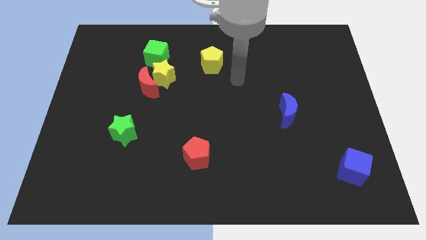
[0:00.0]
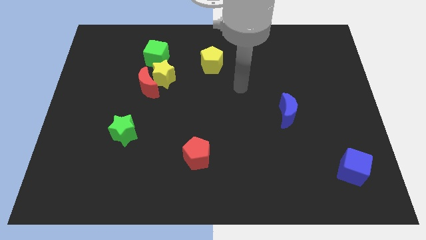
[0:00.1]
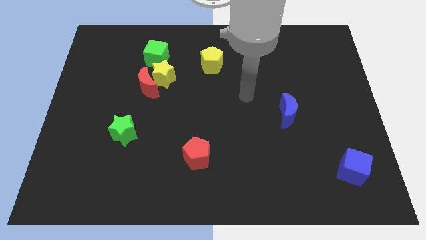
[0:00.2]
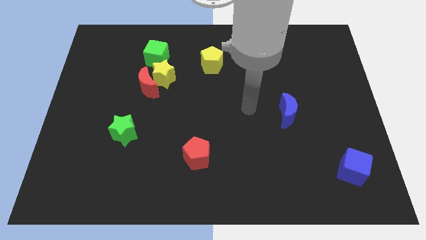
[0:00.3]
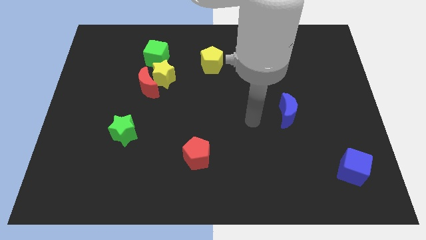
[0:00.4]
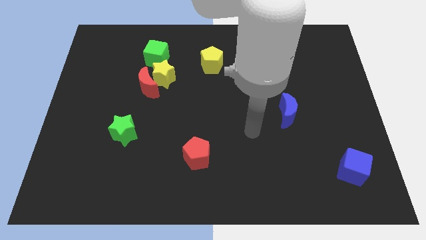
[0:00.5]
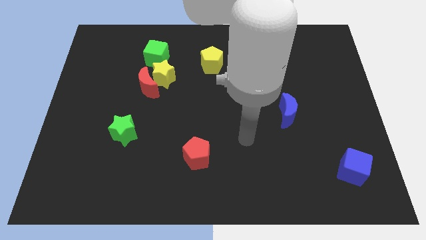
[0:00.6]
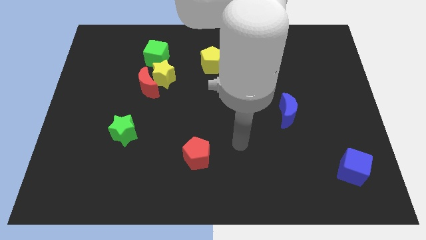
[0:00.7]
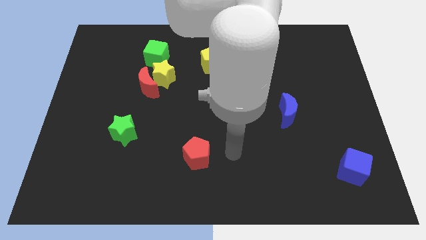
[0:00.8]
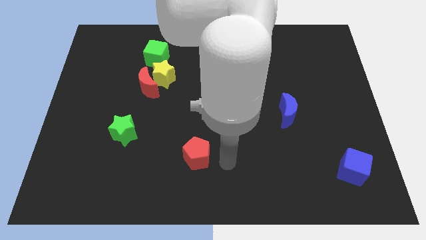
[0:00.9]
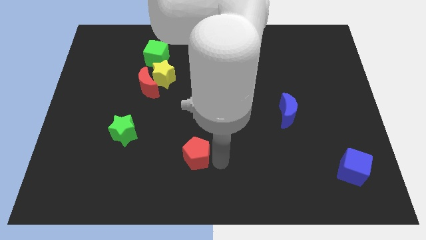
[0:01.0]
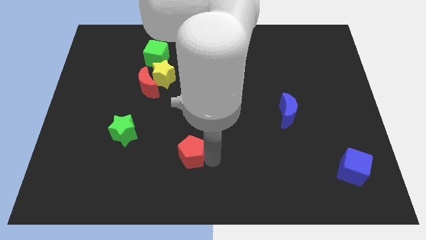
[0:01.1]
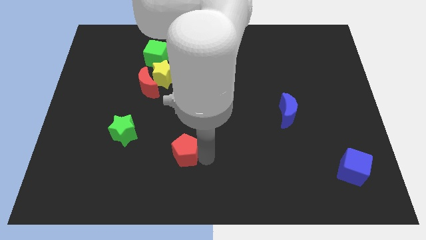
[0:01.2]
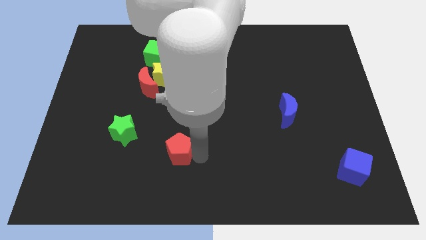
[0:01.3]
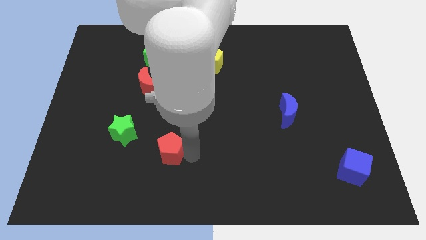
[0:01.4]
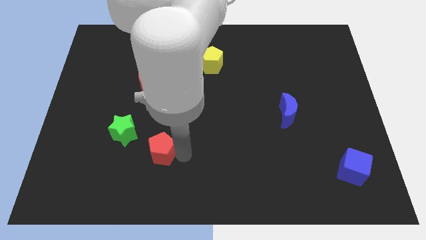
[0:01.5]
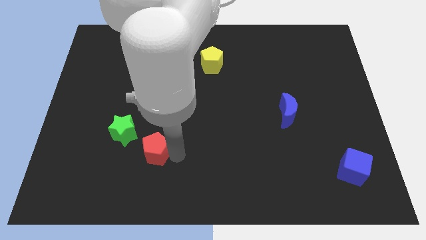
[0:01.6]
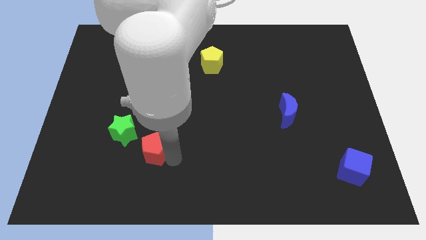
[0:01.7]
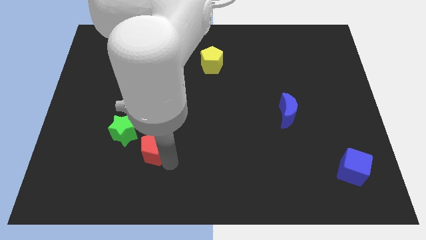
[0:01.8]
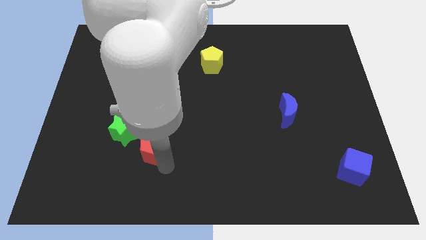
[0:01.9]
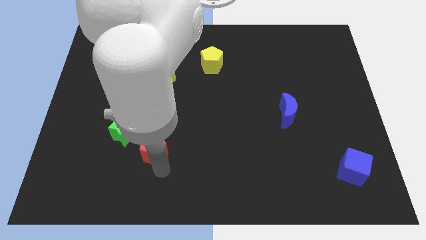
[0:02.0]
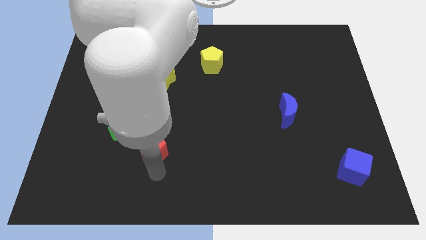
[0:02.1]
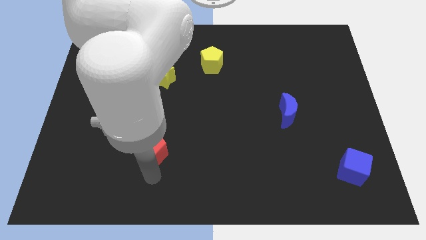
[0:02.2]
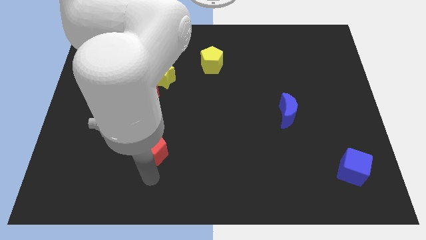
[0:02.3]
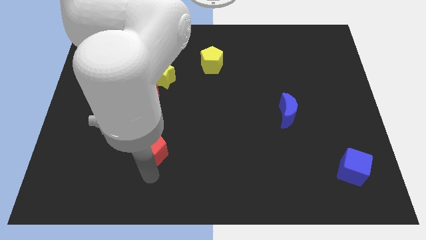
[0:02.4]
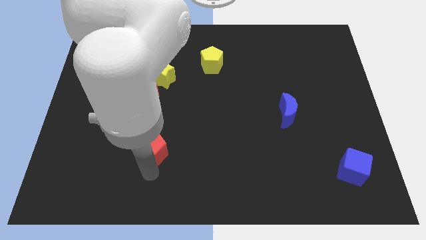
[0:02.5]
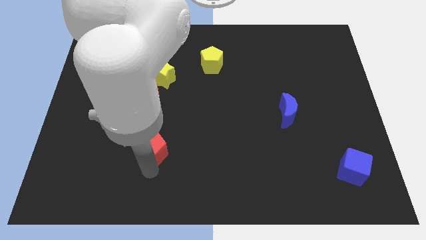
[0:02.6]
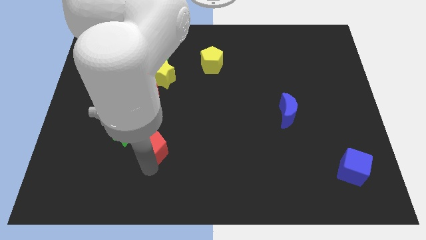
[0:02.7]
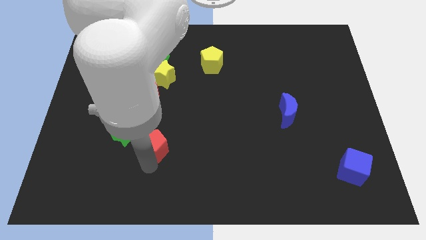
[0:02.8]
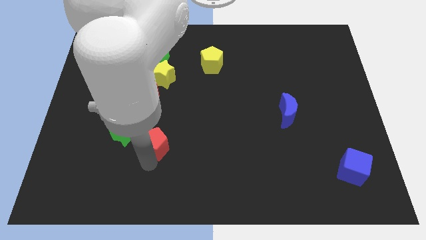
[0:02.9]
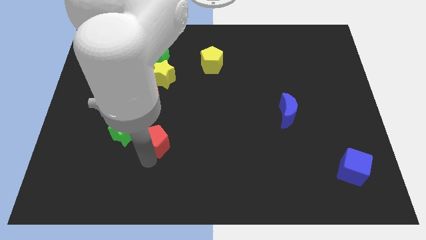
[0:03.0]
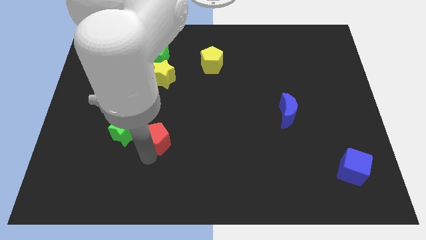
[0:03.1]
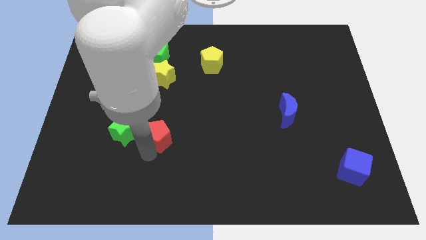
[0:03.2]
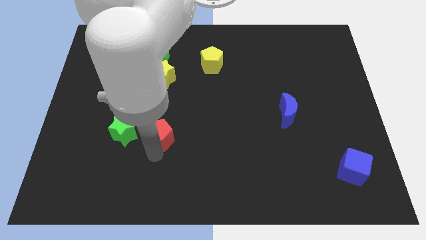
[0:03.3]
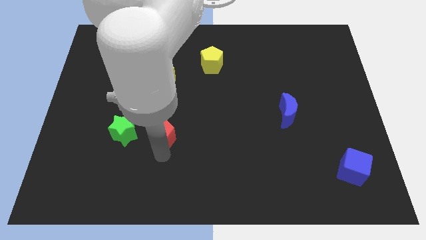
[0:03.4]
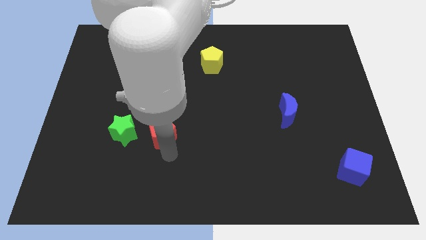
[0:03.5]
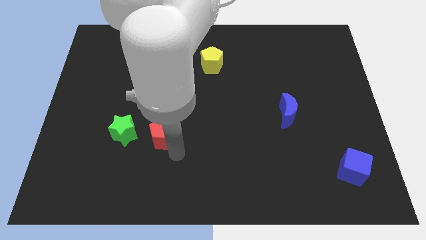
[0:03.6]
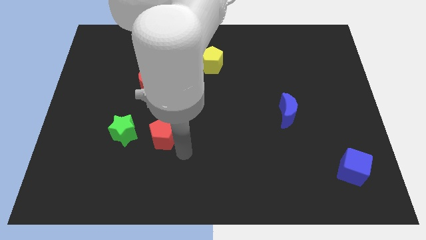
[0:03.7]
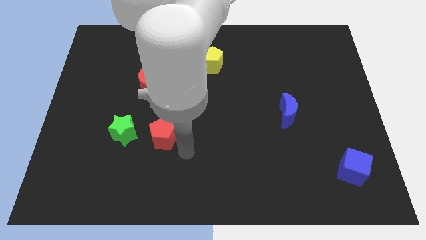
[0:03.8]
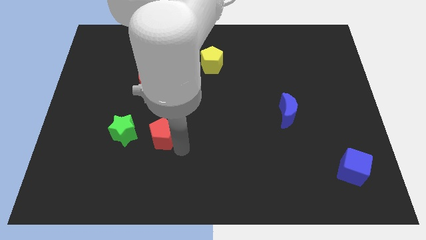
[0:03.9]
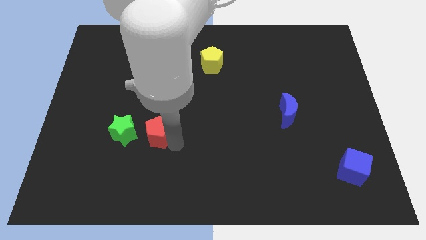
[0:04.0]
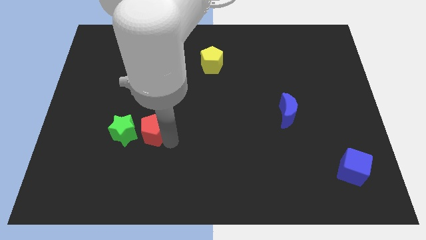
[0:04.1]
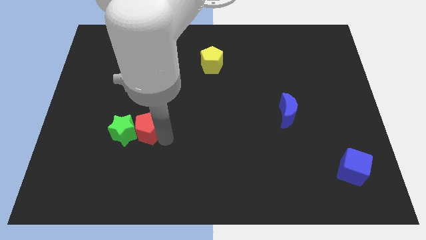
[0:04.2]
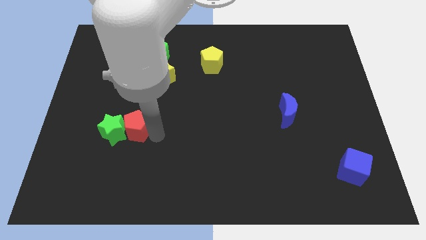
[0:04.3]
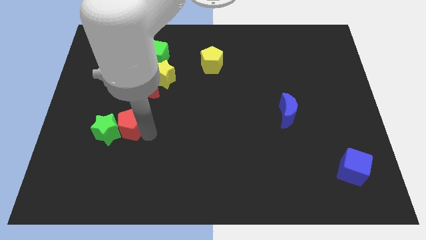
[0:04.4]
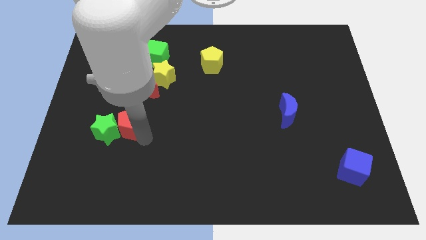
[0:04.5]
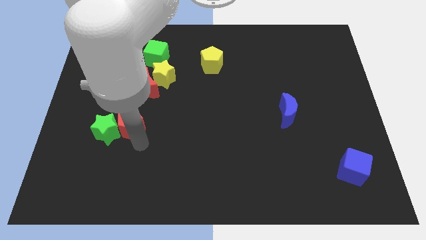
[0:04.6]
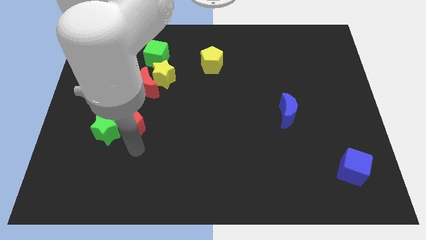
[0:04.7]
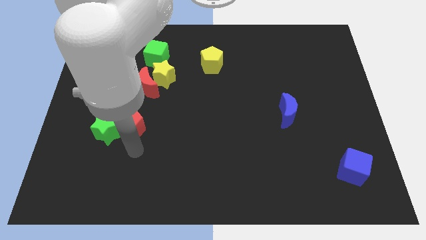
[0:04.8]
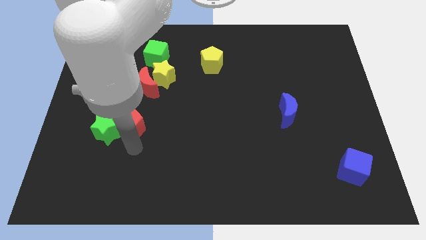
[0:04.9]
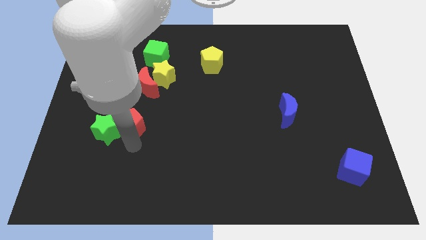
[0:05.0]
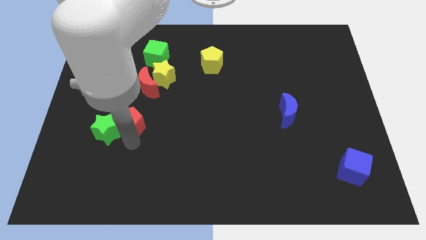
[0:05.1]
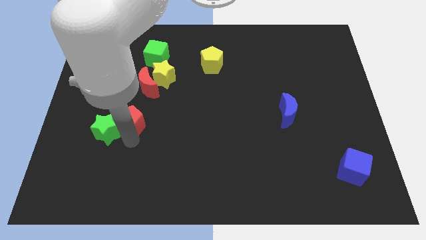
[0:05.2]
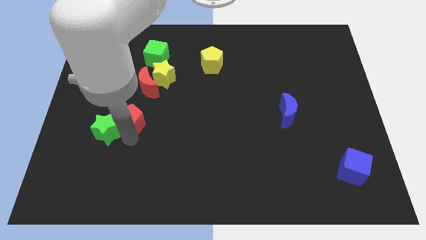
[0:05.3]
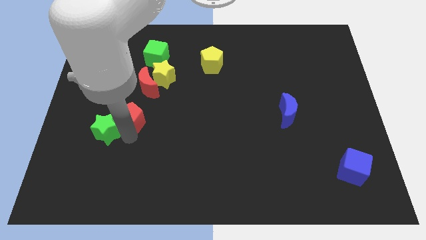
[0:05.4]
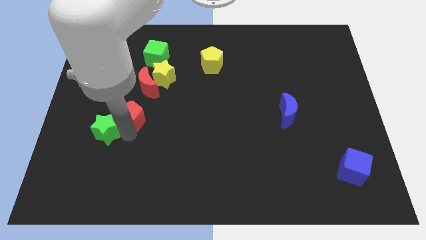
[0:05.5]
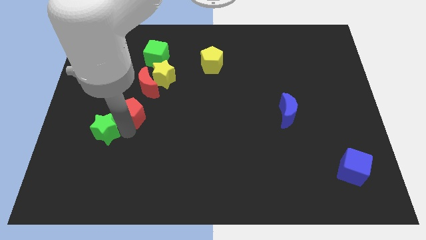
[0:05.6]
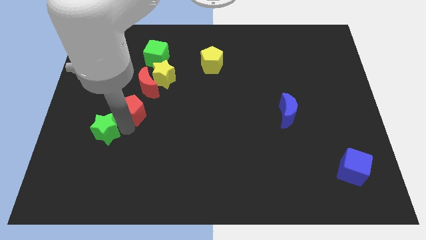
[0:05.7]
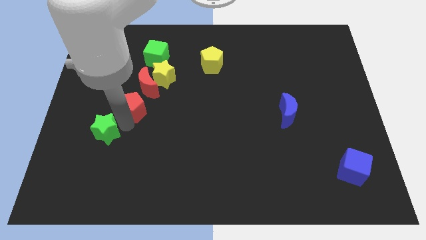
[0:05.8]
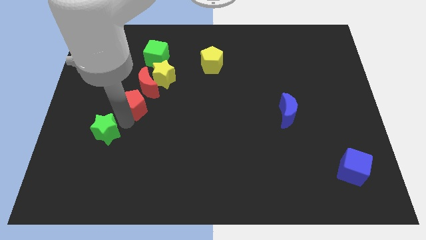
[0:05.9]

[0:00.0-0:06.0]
slide the red pentagon up and then left

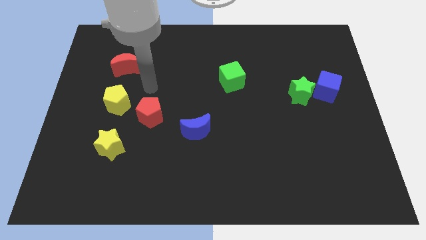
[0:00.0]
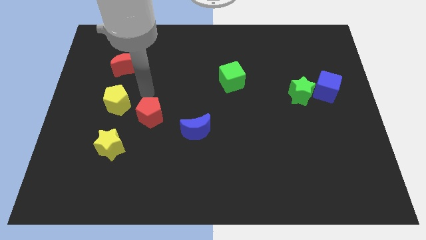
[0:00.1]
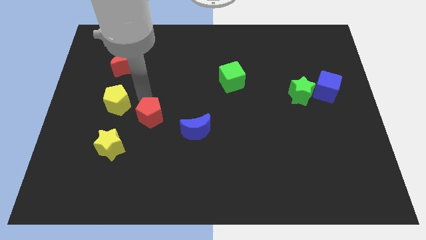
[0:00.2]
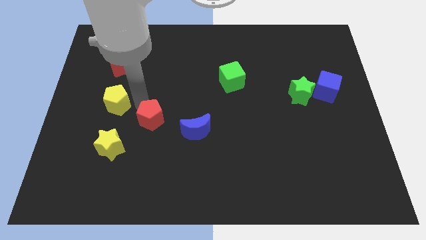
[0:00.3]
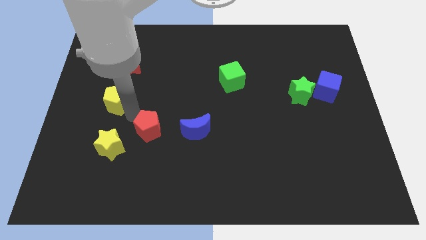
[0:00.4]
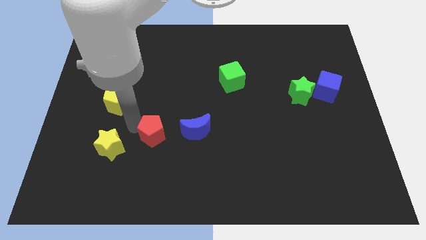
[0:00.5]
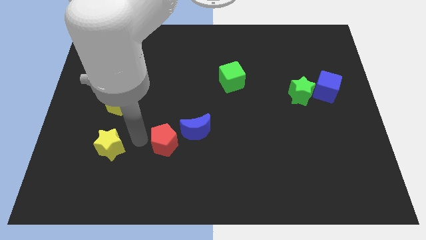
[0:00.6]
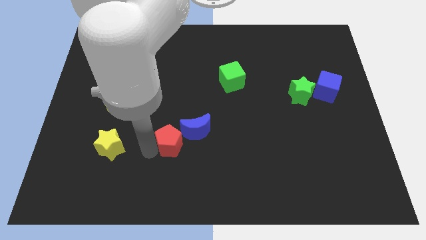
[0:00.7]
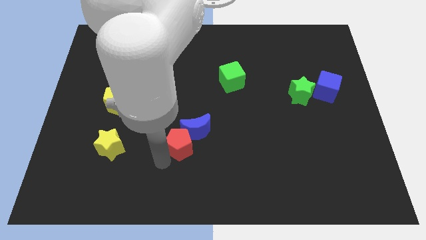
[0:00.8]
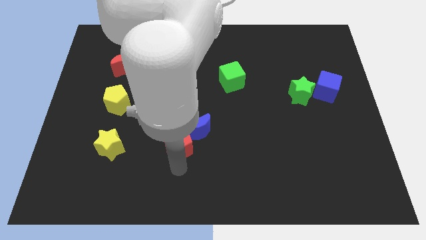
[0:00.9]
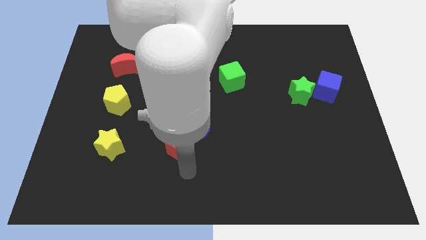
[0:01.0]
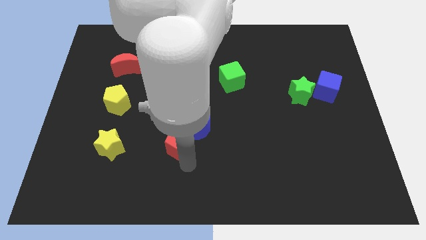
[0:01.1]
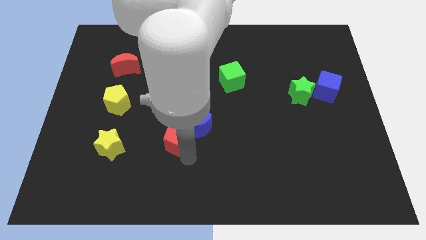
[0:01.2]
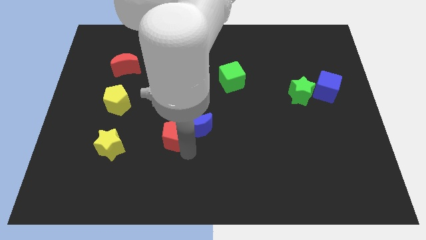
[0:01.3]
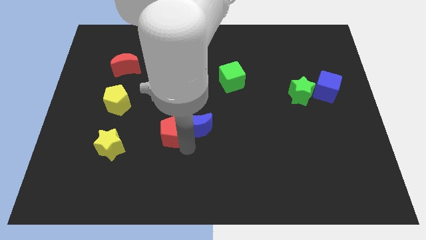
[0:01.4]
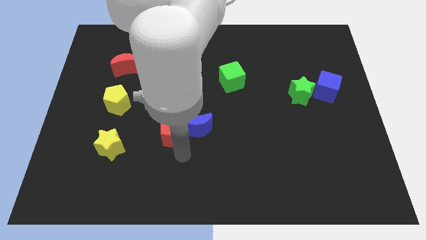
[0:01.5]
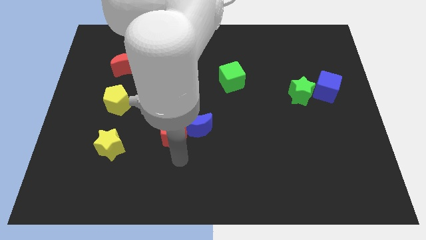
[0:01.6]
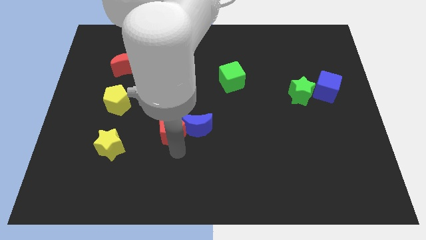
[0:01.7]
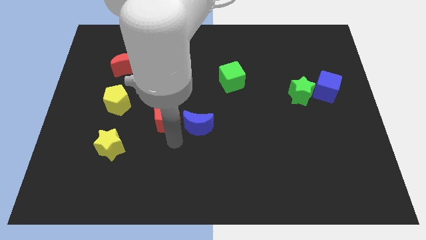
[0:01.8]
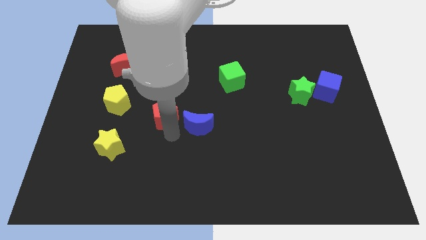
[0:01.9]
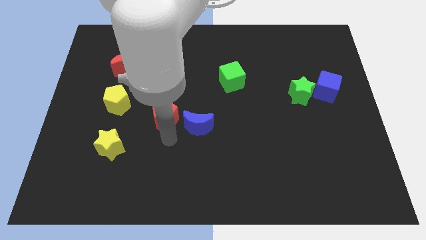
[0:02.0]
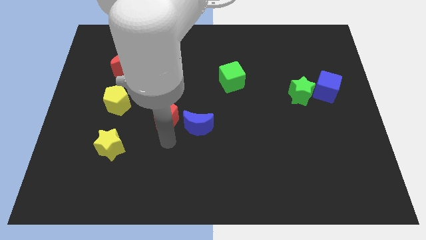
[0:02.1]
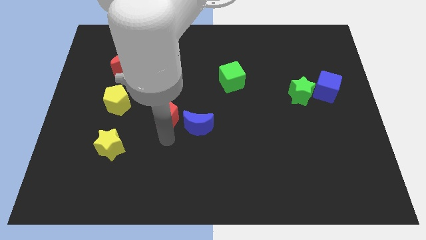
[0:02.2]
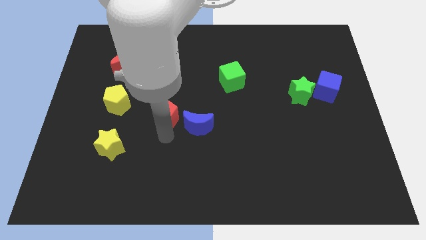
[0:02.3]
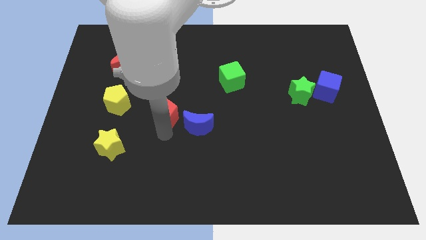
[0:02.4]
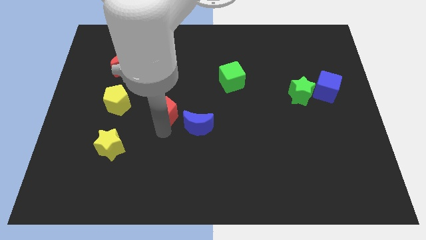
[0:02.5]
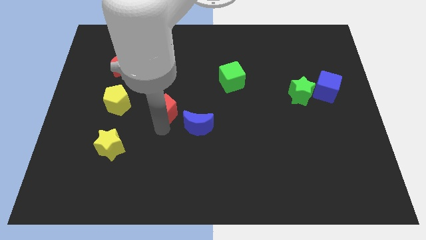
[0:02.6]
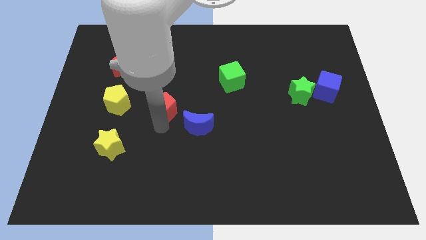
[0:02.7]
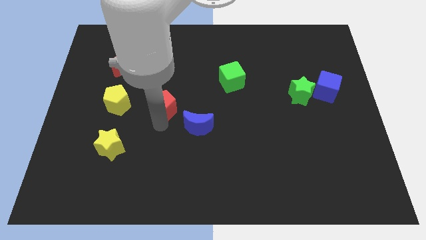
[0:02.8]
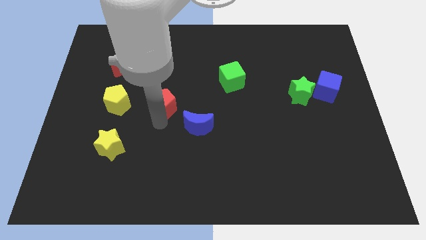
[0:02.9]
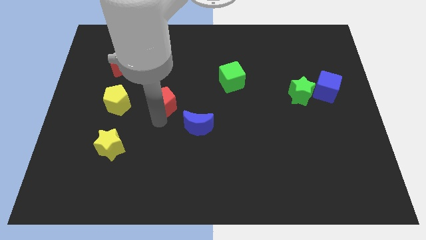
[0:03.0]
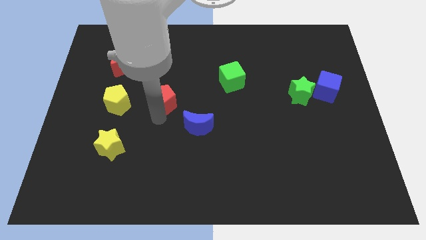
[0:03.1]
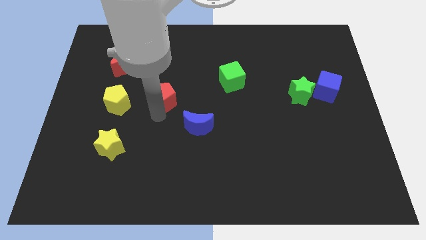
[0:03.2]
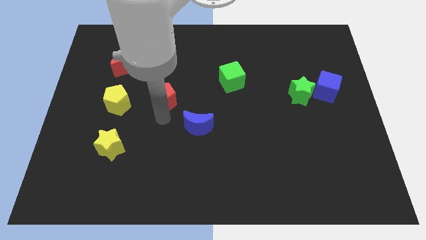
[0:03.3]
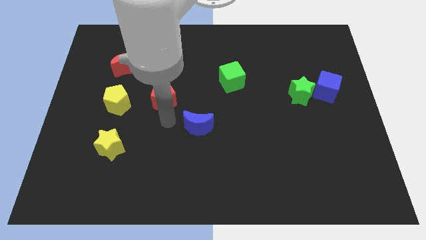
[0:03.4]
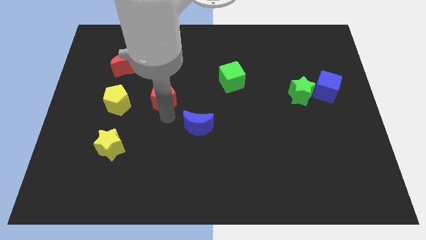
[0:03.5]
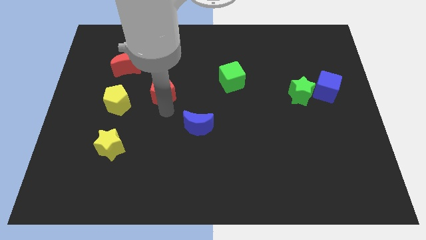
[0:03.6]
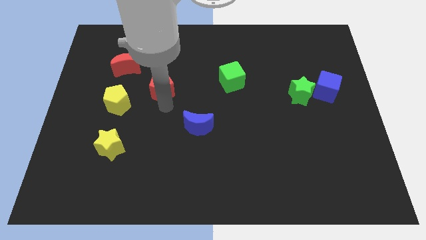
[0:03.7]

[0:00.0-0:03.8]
slide the red pentagon slightly up
